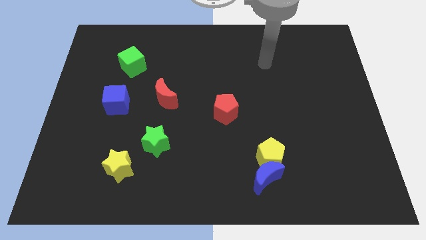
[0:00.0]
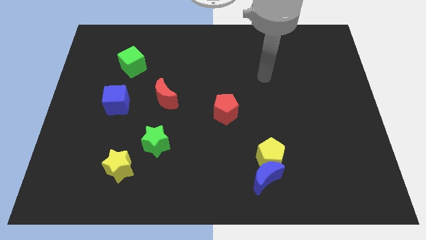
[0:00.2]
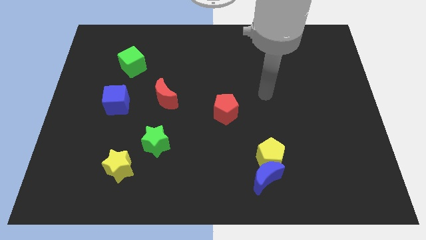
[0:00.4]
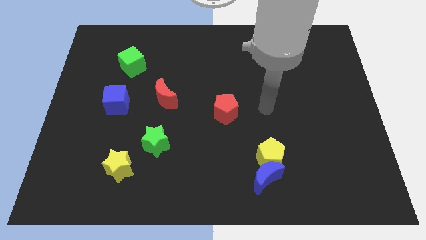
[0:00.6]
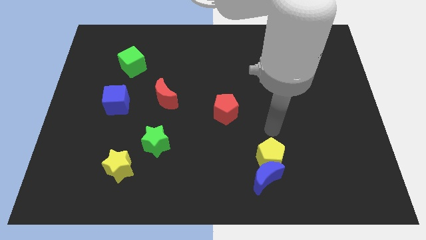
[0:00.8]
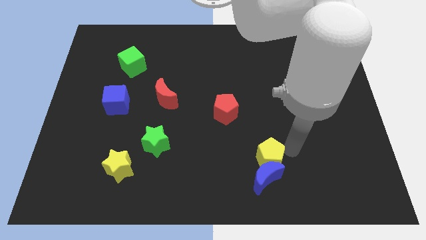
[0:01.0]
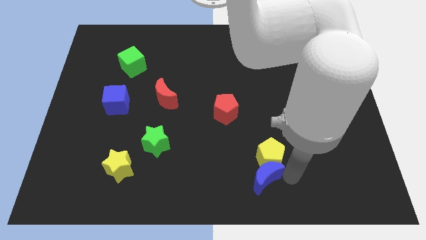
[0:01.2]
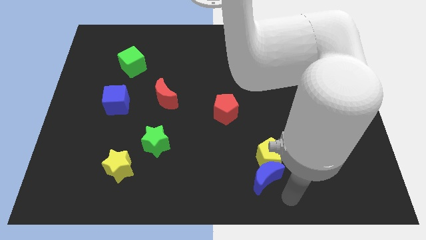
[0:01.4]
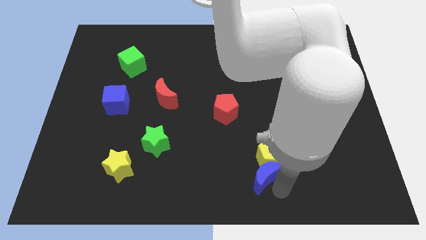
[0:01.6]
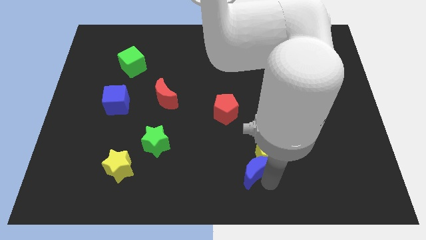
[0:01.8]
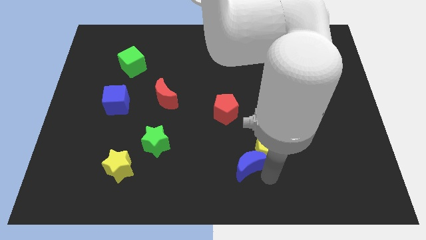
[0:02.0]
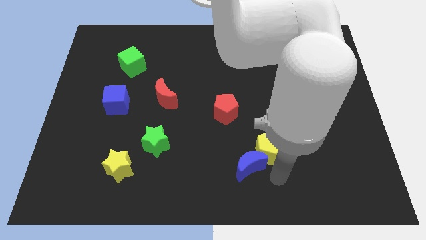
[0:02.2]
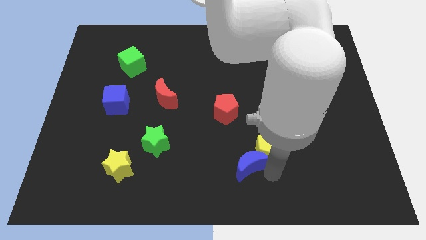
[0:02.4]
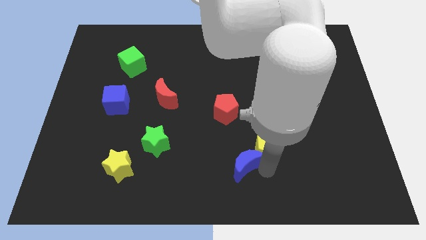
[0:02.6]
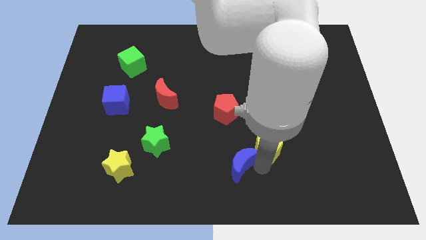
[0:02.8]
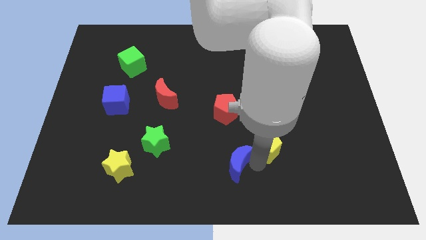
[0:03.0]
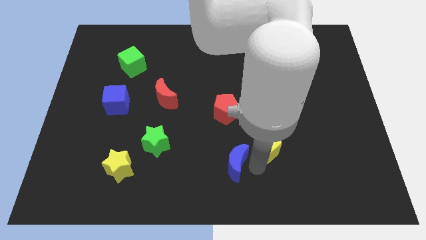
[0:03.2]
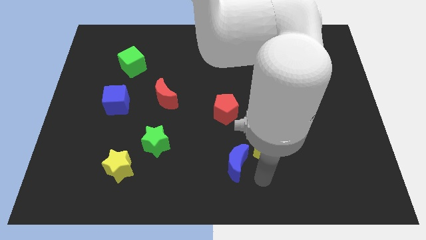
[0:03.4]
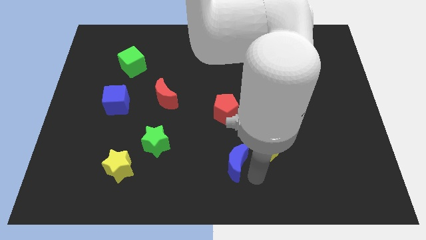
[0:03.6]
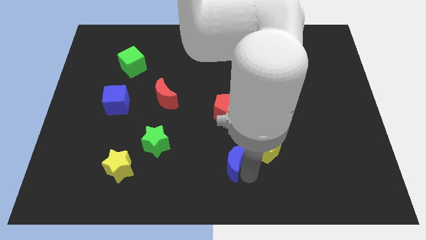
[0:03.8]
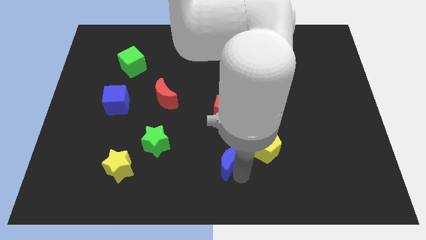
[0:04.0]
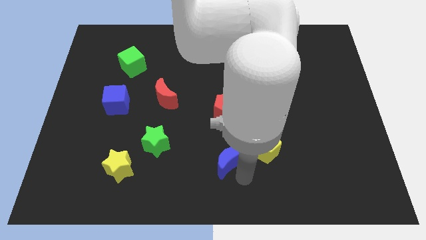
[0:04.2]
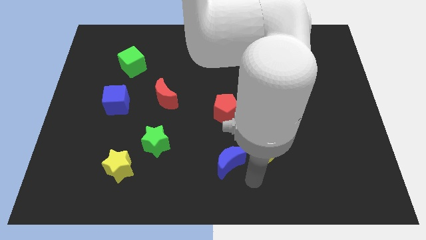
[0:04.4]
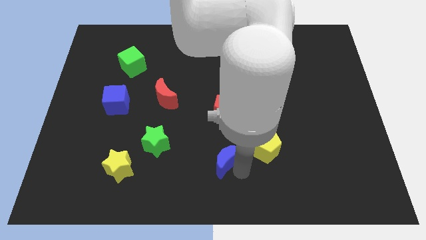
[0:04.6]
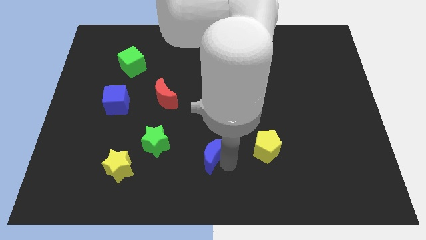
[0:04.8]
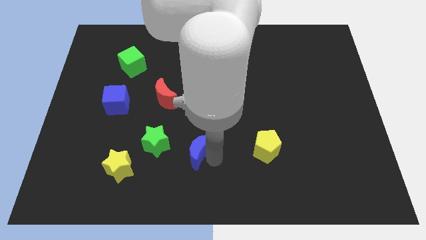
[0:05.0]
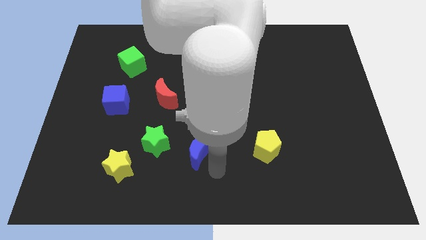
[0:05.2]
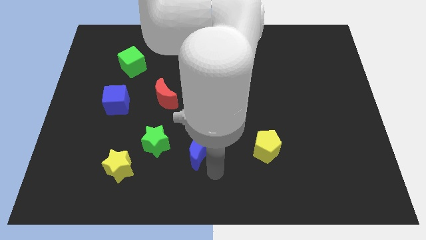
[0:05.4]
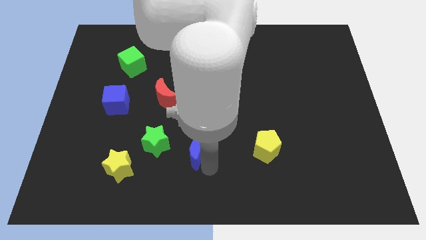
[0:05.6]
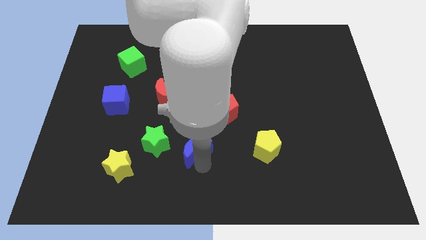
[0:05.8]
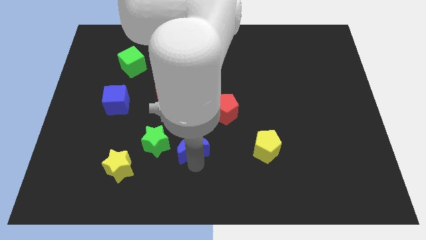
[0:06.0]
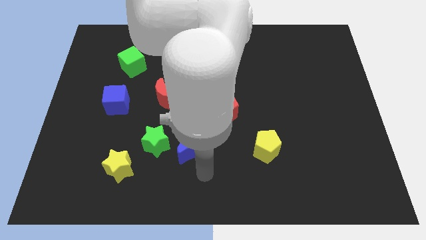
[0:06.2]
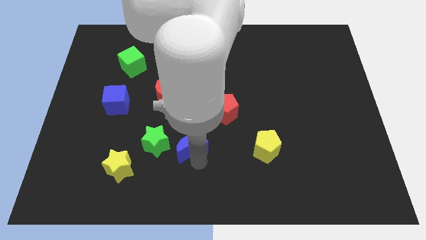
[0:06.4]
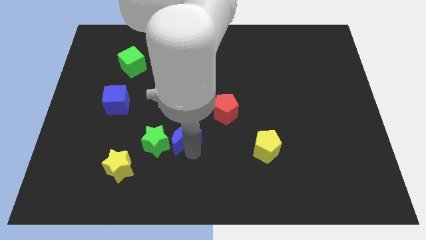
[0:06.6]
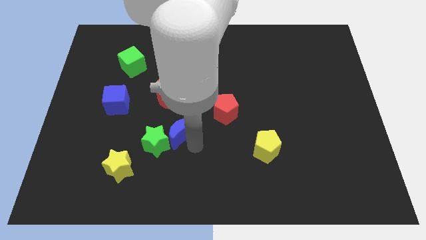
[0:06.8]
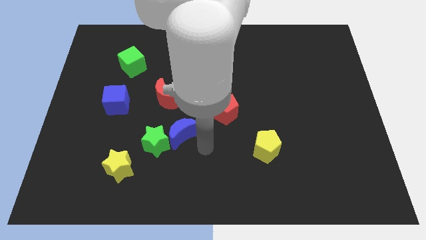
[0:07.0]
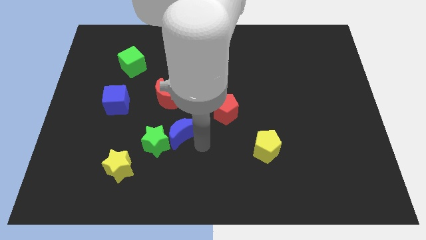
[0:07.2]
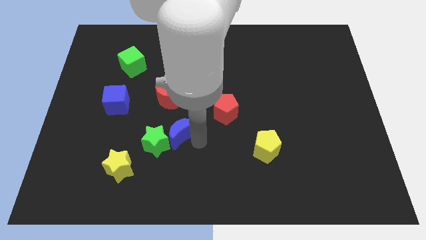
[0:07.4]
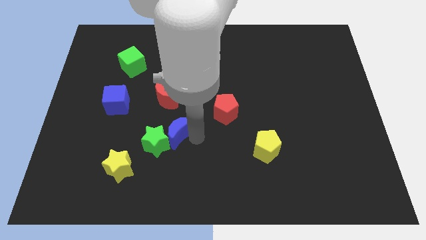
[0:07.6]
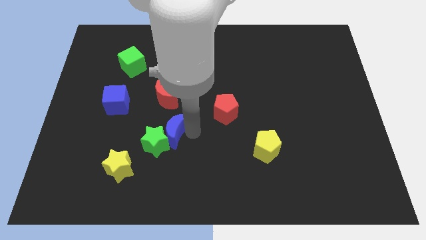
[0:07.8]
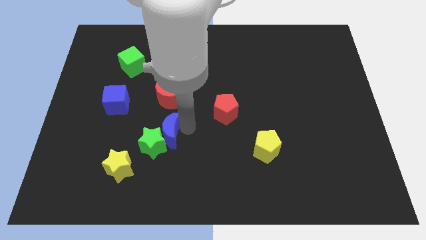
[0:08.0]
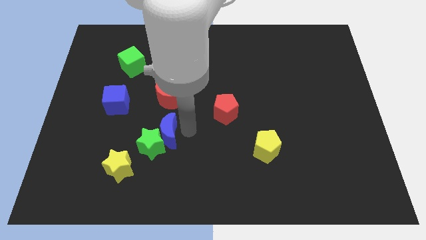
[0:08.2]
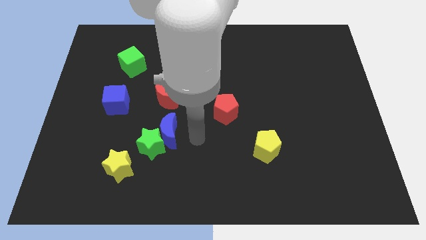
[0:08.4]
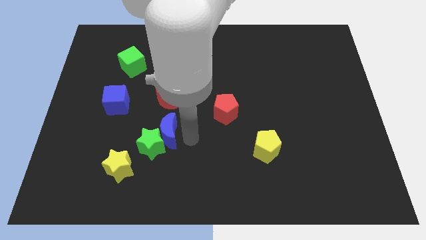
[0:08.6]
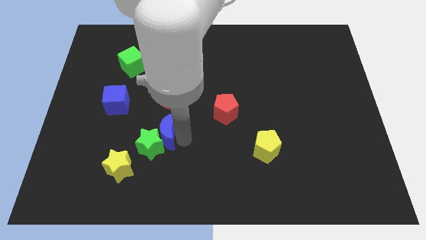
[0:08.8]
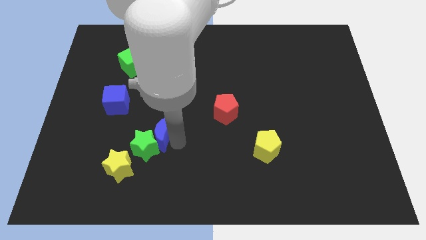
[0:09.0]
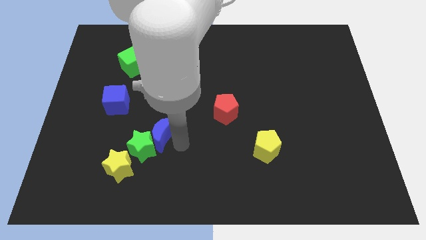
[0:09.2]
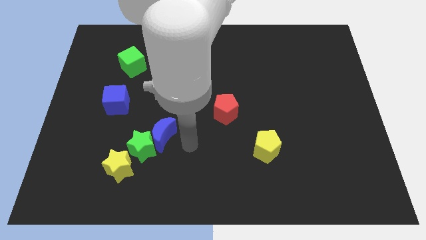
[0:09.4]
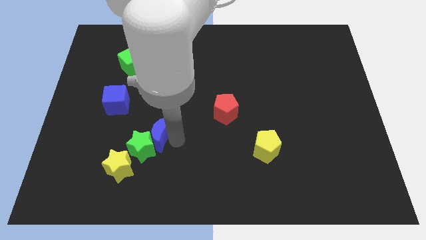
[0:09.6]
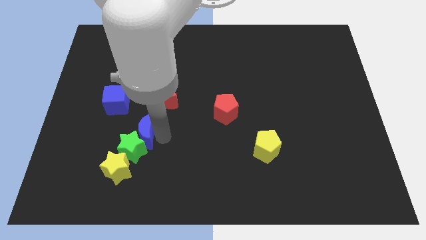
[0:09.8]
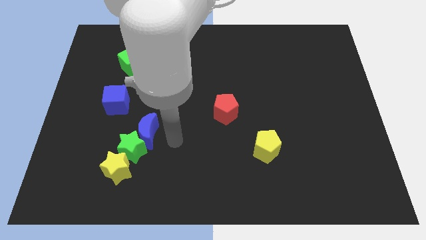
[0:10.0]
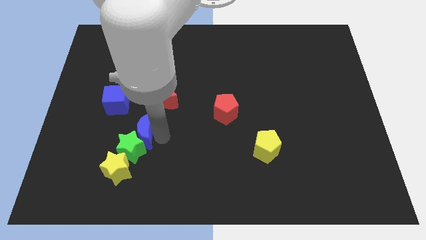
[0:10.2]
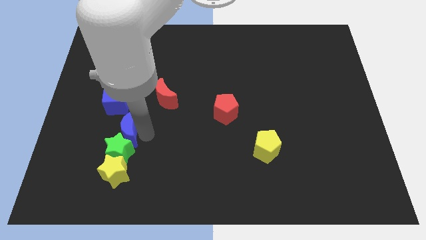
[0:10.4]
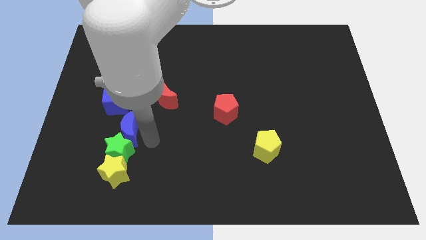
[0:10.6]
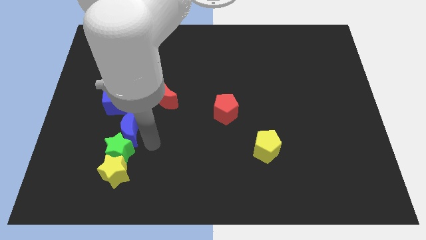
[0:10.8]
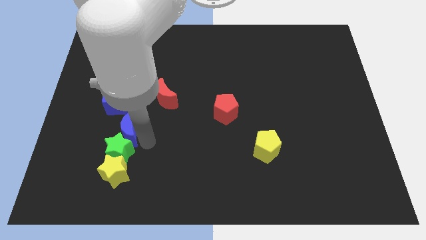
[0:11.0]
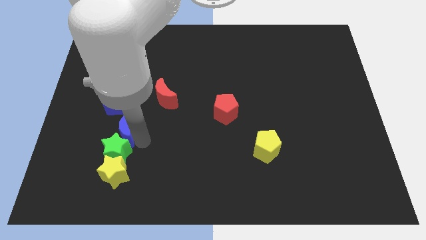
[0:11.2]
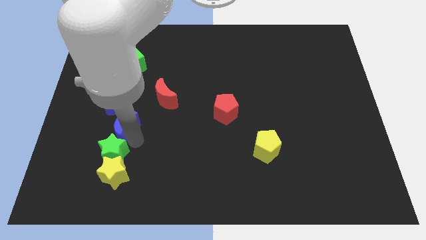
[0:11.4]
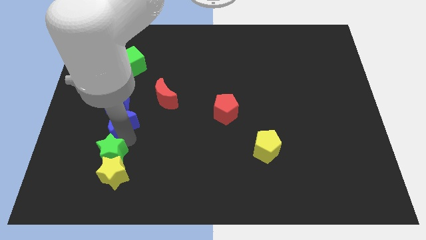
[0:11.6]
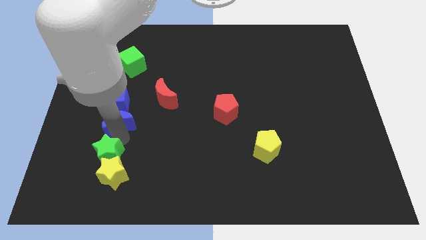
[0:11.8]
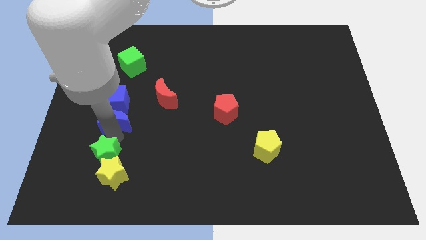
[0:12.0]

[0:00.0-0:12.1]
put the blue moon towards the blue cube
